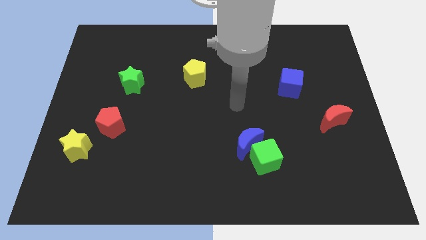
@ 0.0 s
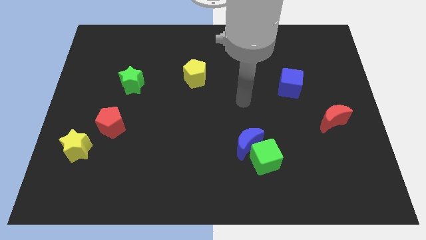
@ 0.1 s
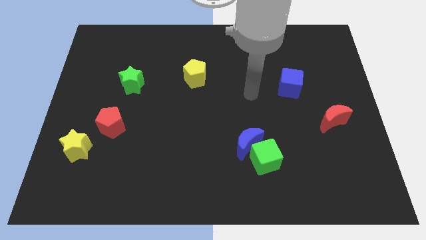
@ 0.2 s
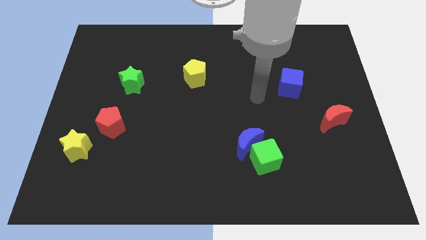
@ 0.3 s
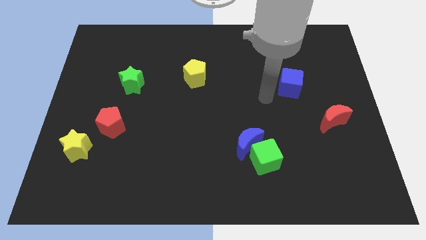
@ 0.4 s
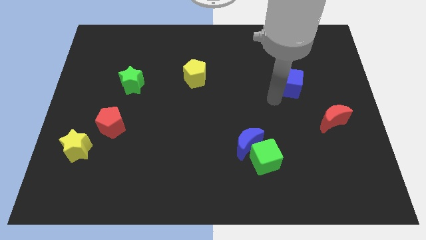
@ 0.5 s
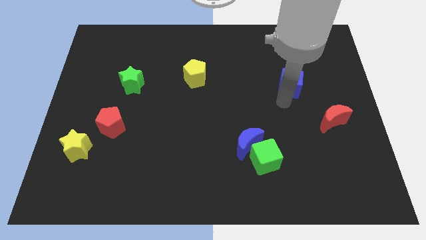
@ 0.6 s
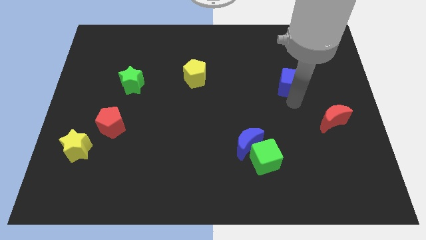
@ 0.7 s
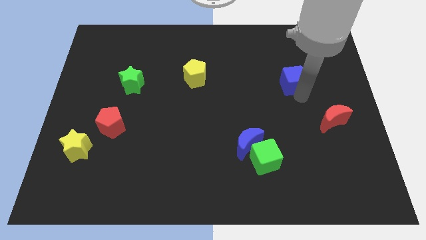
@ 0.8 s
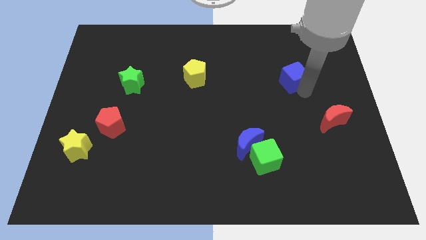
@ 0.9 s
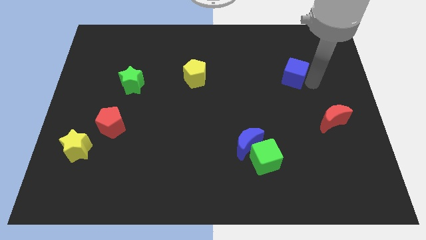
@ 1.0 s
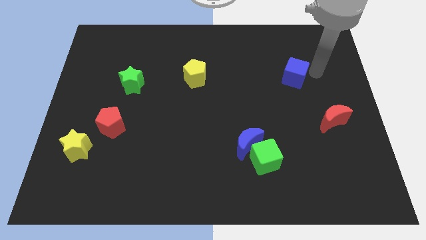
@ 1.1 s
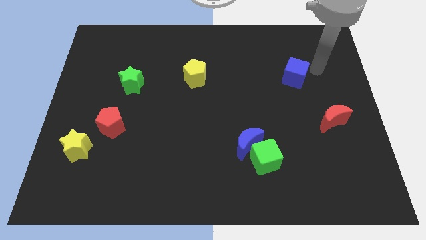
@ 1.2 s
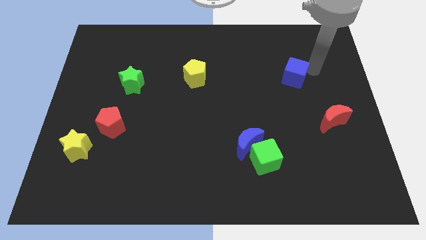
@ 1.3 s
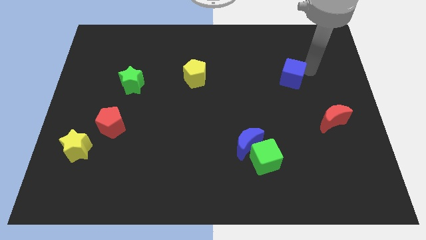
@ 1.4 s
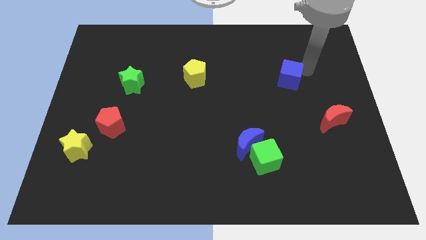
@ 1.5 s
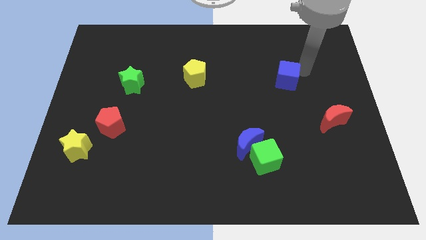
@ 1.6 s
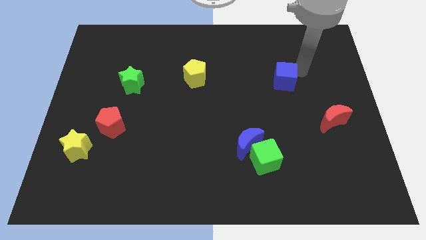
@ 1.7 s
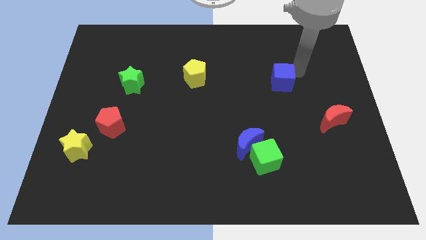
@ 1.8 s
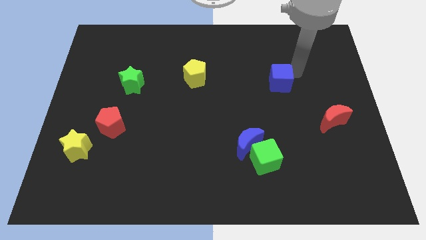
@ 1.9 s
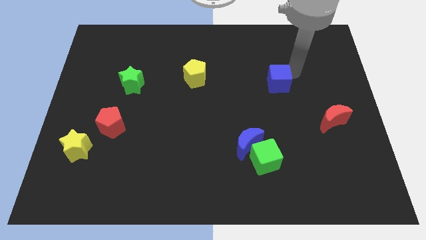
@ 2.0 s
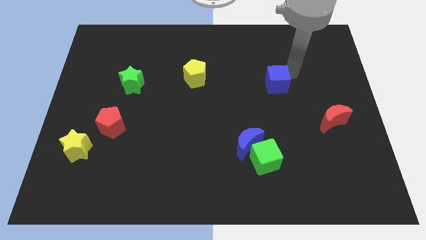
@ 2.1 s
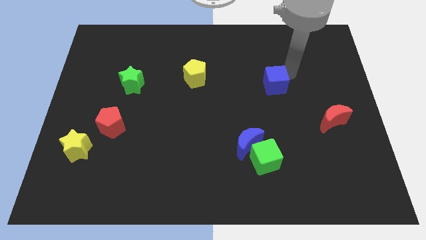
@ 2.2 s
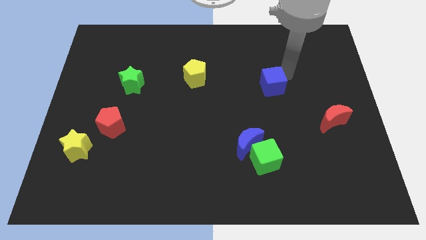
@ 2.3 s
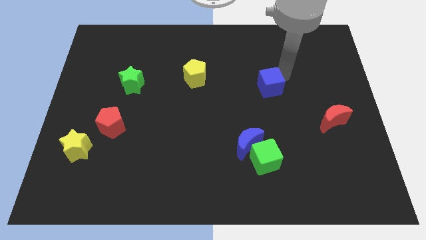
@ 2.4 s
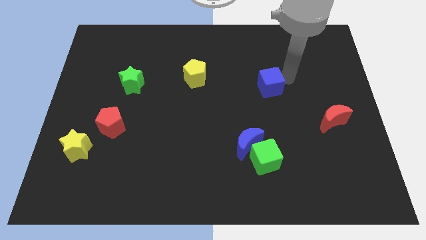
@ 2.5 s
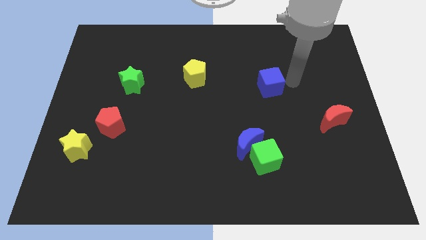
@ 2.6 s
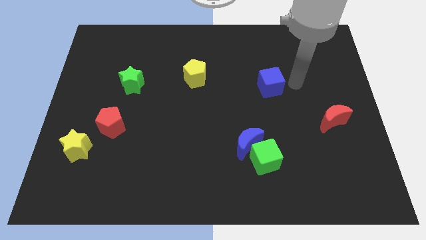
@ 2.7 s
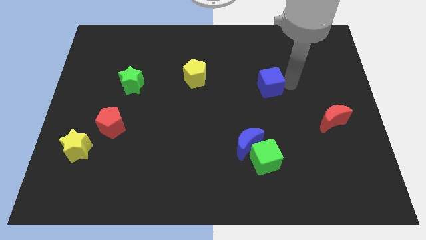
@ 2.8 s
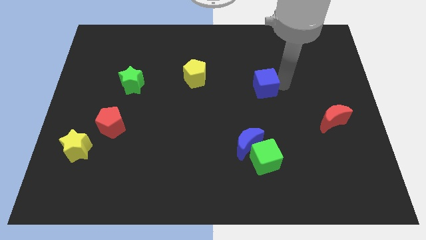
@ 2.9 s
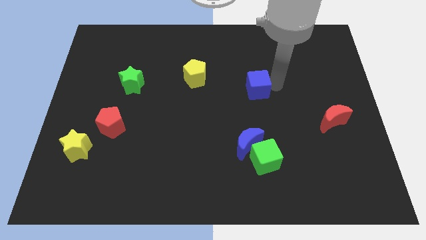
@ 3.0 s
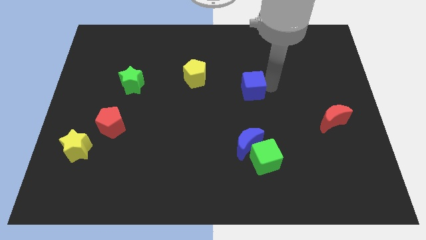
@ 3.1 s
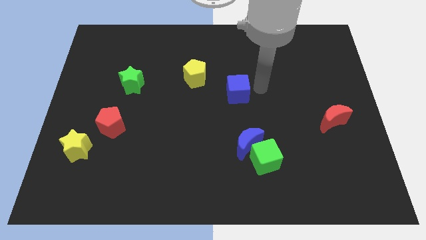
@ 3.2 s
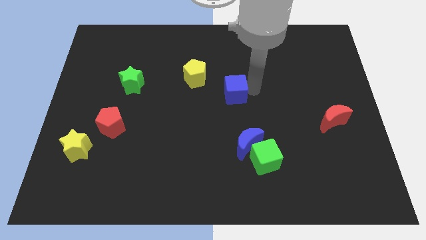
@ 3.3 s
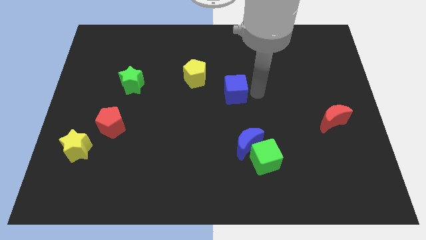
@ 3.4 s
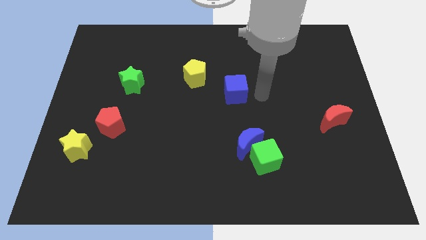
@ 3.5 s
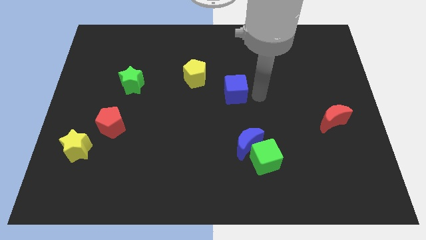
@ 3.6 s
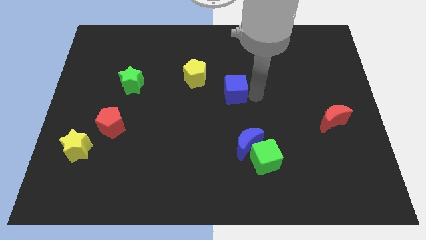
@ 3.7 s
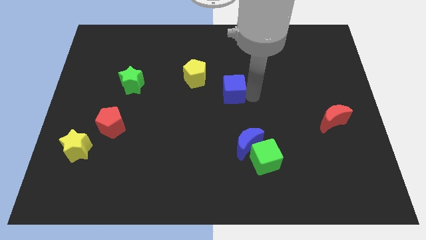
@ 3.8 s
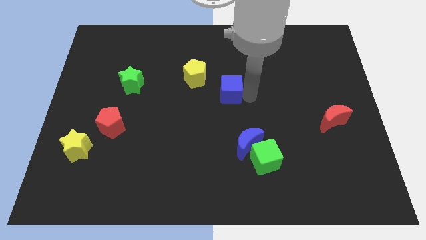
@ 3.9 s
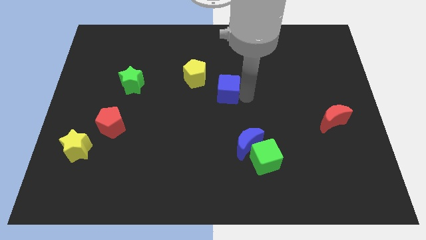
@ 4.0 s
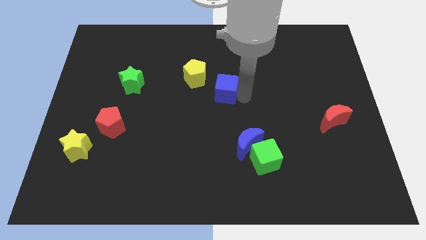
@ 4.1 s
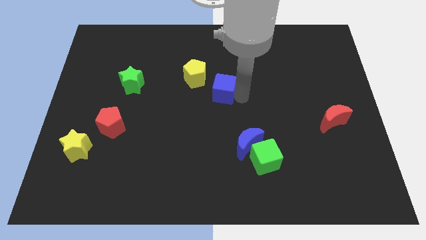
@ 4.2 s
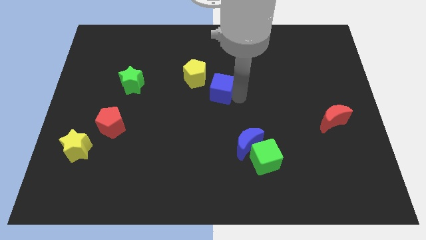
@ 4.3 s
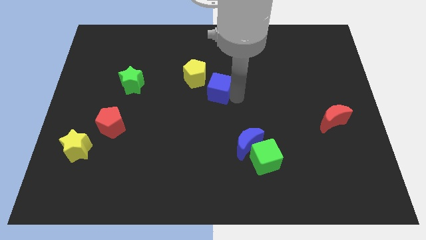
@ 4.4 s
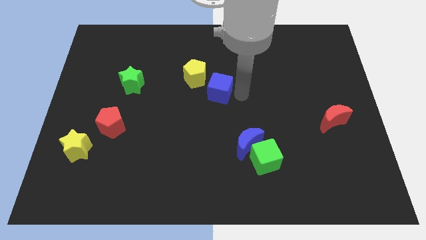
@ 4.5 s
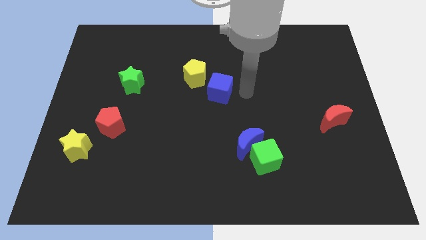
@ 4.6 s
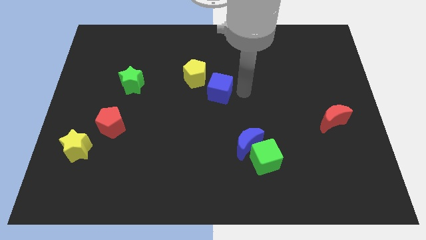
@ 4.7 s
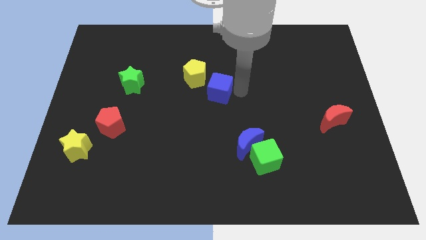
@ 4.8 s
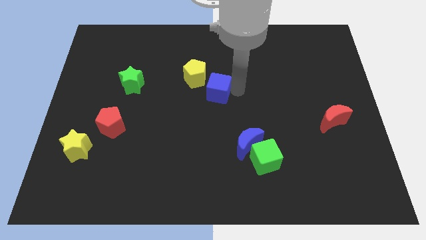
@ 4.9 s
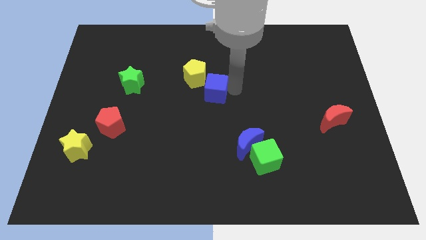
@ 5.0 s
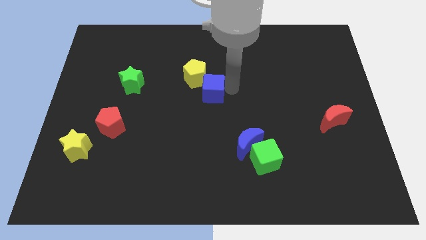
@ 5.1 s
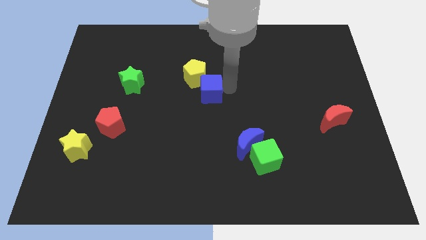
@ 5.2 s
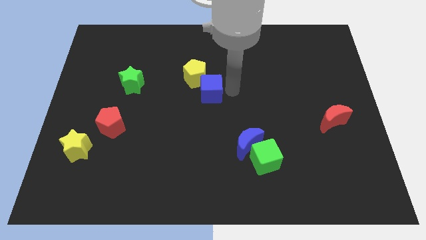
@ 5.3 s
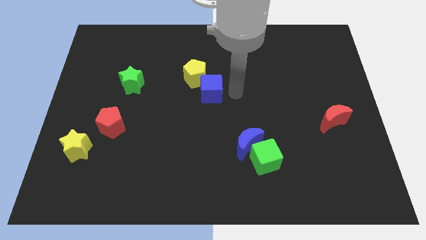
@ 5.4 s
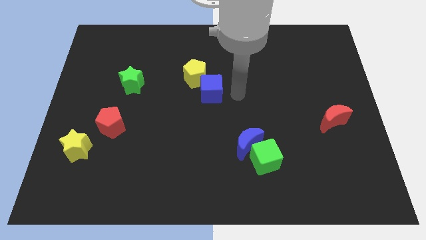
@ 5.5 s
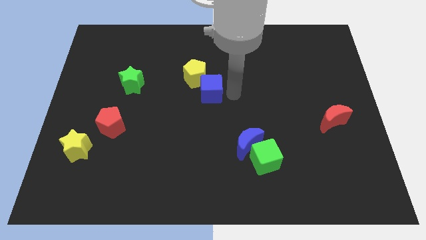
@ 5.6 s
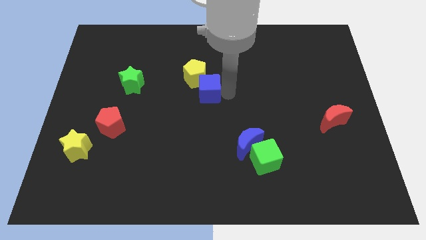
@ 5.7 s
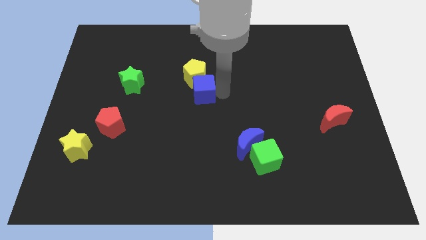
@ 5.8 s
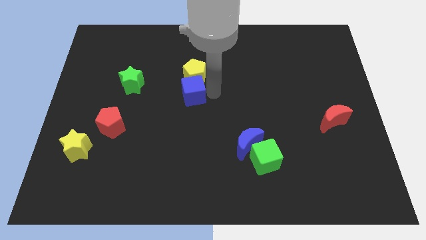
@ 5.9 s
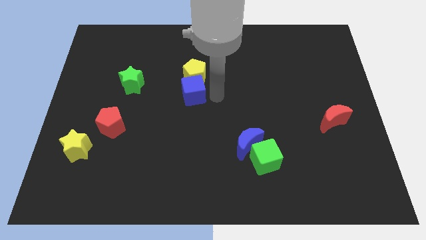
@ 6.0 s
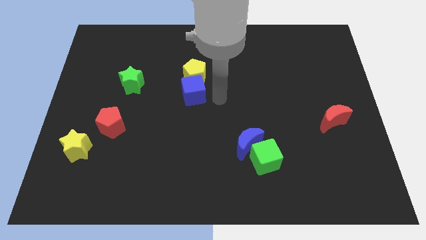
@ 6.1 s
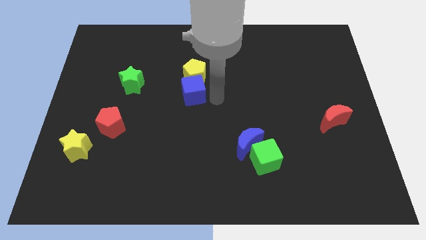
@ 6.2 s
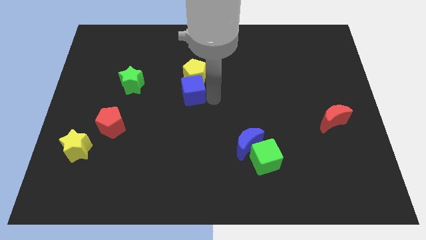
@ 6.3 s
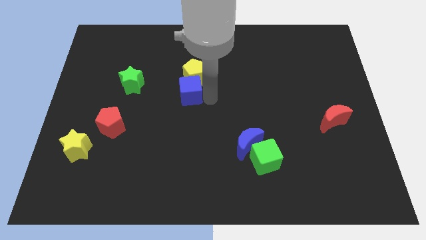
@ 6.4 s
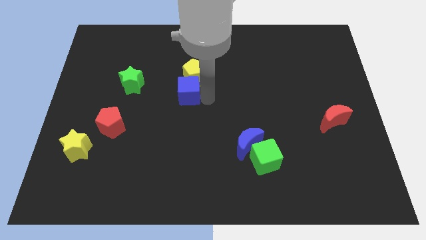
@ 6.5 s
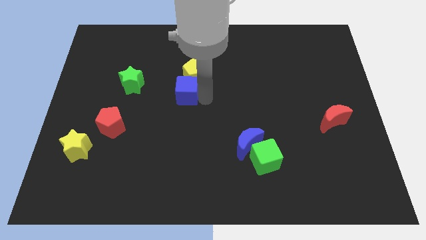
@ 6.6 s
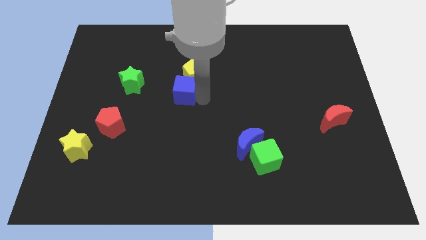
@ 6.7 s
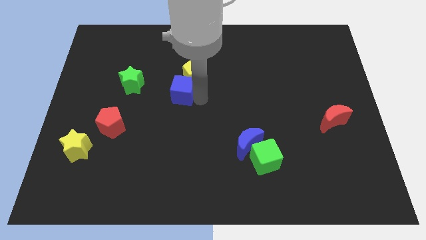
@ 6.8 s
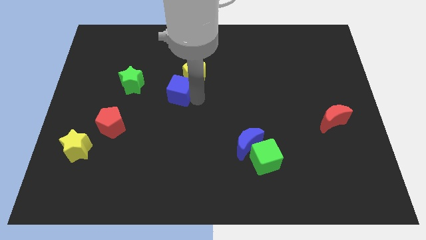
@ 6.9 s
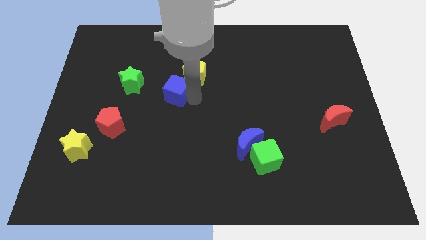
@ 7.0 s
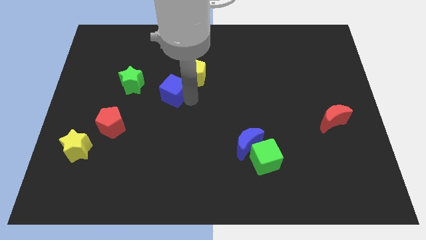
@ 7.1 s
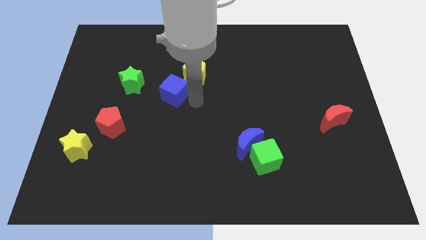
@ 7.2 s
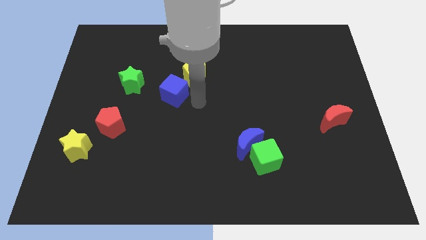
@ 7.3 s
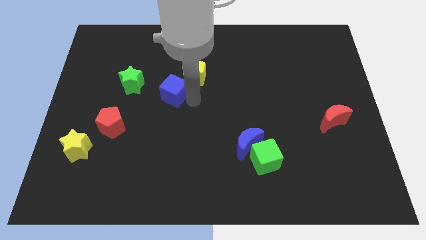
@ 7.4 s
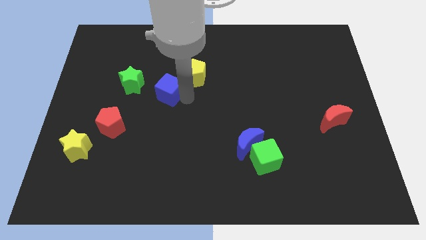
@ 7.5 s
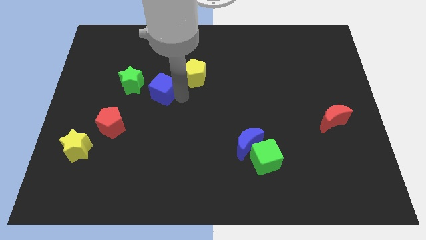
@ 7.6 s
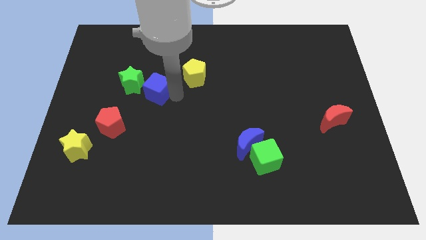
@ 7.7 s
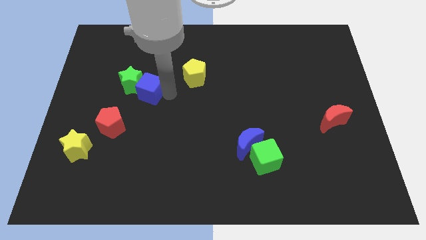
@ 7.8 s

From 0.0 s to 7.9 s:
push the blue cube close to the green star

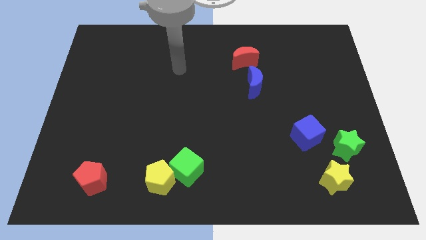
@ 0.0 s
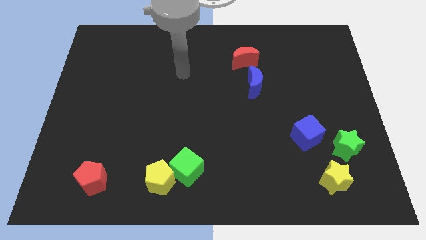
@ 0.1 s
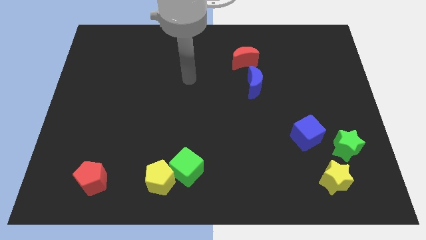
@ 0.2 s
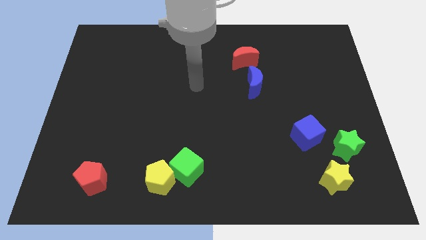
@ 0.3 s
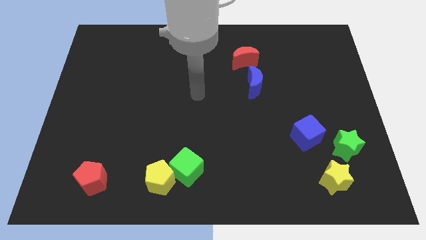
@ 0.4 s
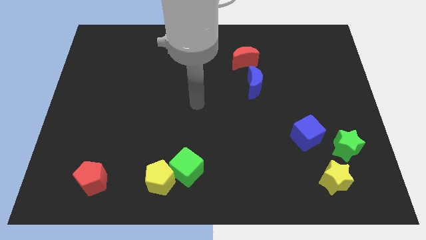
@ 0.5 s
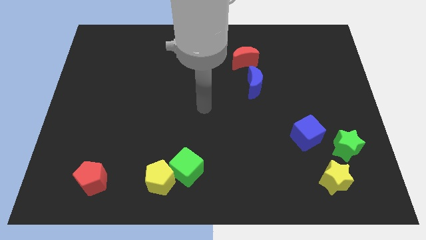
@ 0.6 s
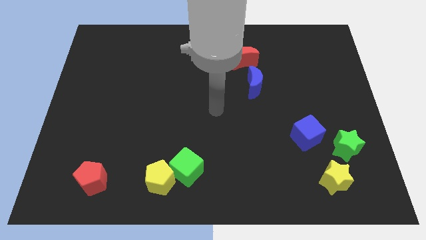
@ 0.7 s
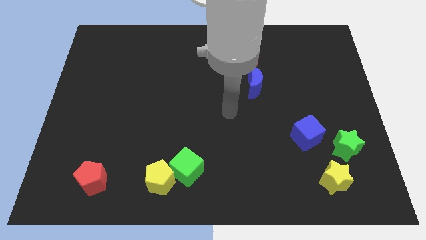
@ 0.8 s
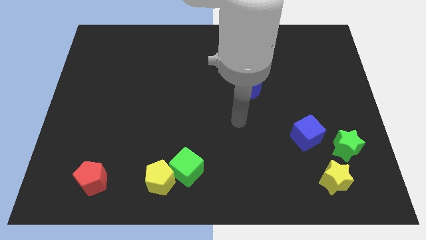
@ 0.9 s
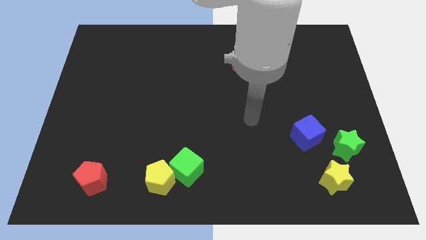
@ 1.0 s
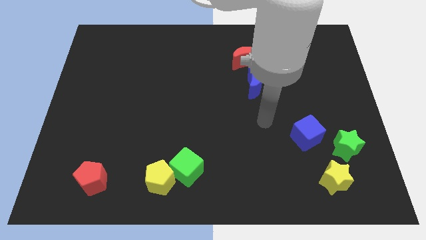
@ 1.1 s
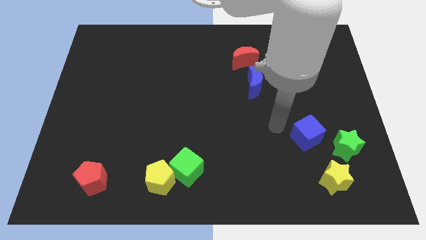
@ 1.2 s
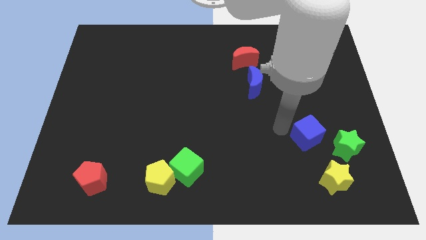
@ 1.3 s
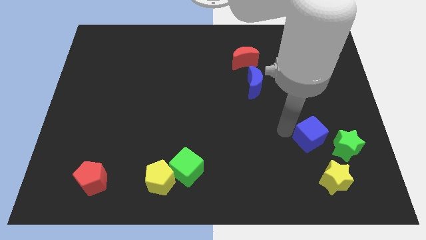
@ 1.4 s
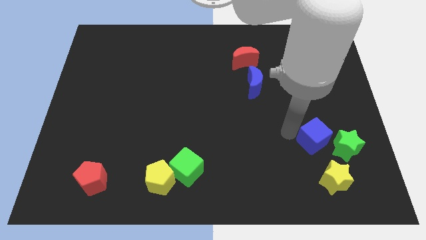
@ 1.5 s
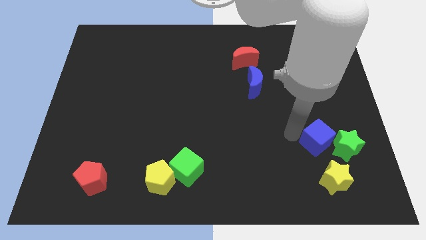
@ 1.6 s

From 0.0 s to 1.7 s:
put the blue cube to the green star
